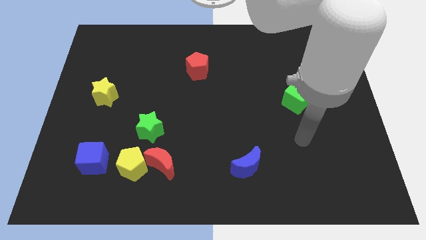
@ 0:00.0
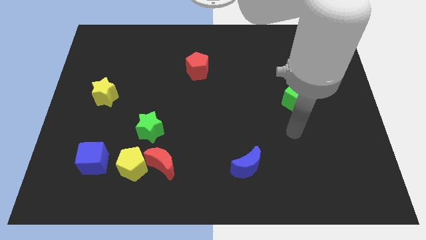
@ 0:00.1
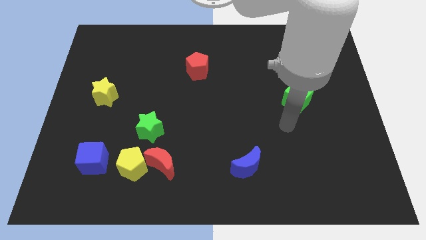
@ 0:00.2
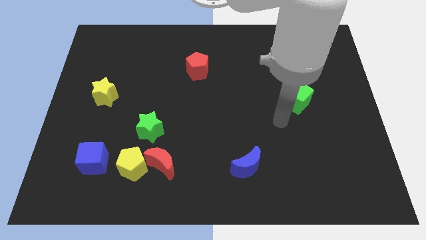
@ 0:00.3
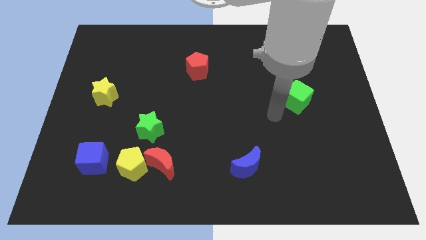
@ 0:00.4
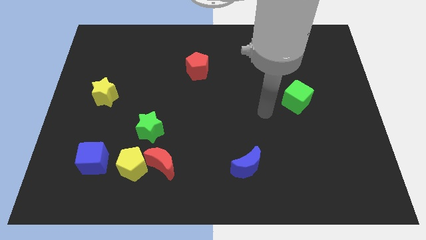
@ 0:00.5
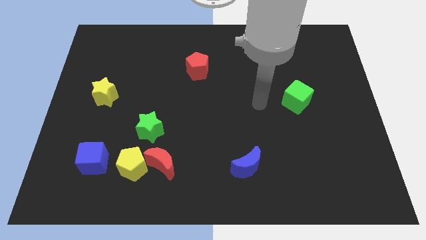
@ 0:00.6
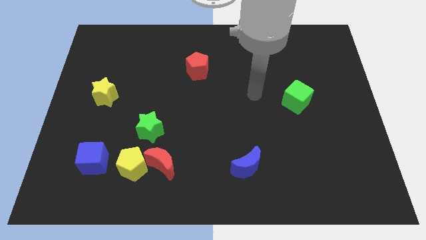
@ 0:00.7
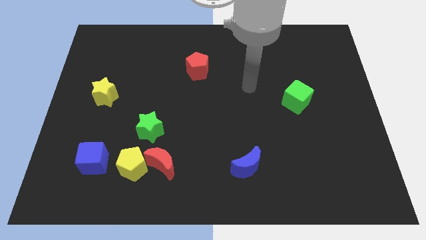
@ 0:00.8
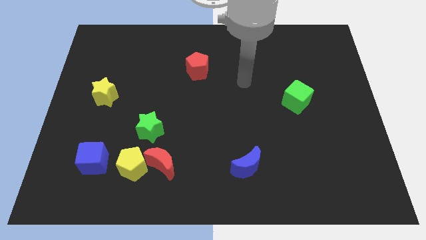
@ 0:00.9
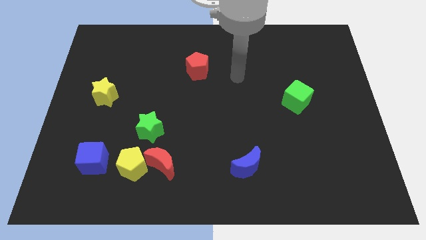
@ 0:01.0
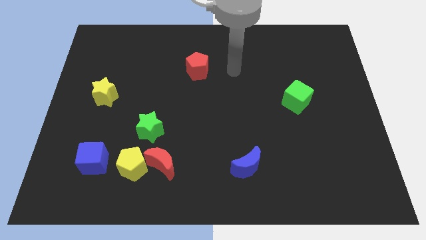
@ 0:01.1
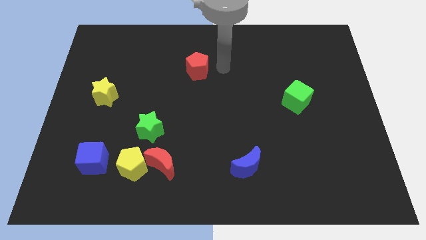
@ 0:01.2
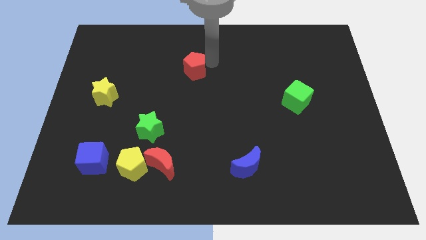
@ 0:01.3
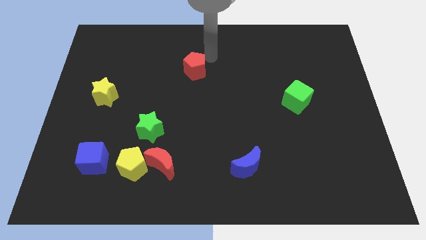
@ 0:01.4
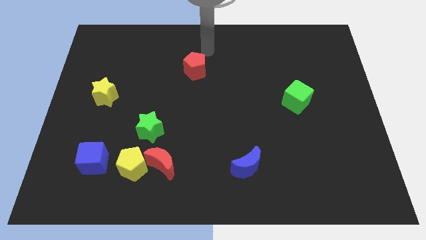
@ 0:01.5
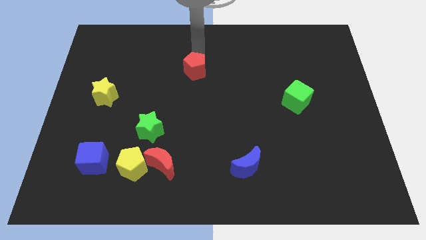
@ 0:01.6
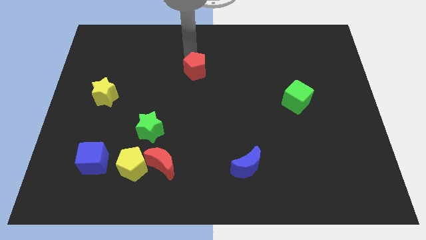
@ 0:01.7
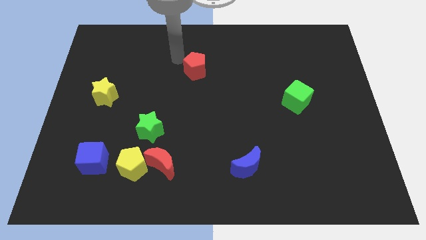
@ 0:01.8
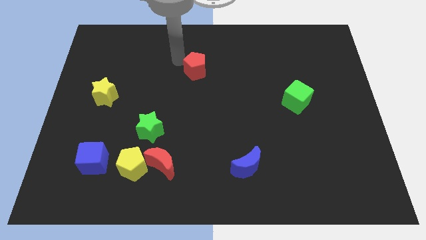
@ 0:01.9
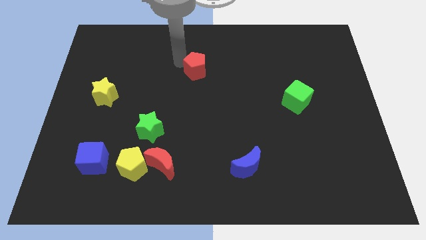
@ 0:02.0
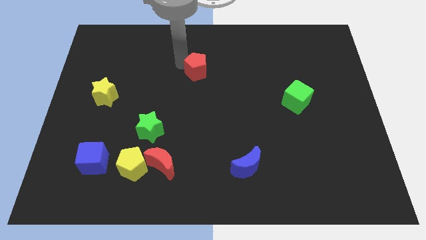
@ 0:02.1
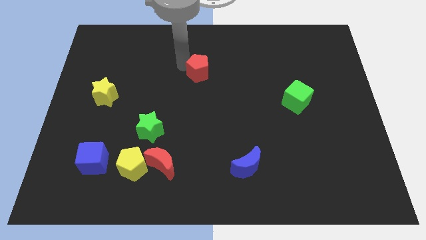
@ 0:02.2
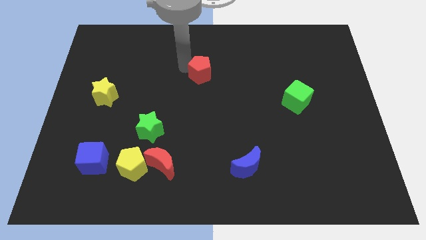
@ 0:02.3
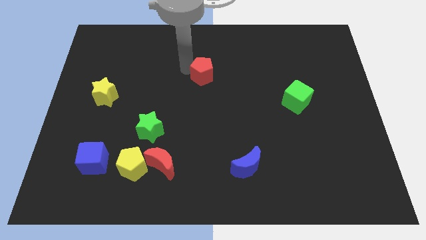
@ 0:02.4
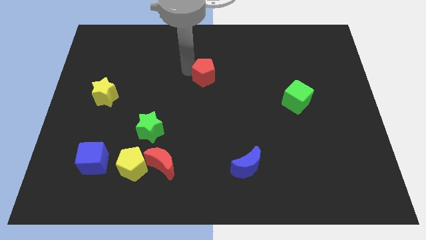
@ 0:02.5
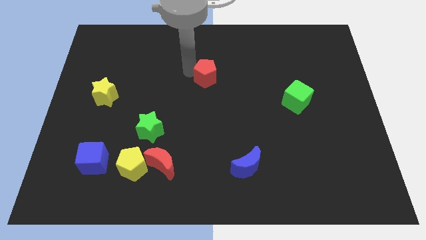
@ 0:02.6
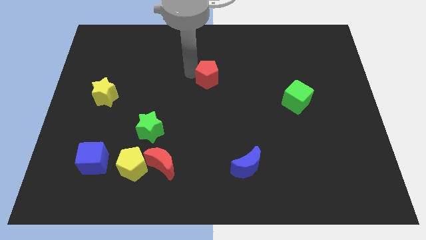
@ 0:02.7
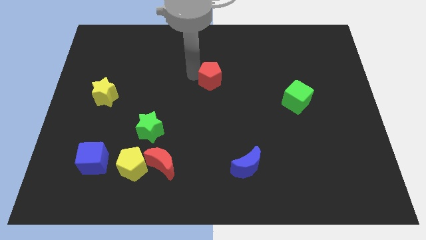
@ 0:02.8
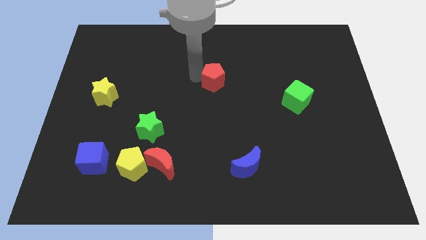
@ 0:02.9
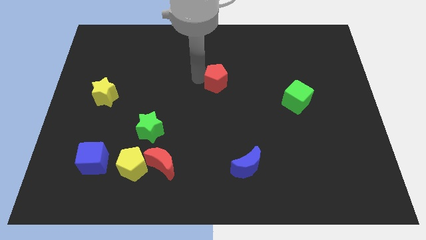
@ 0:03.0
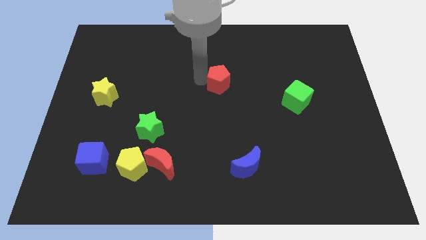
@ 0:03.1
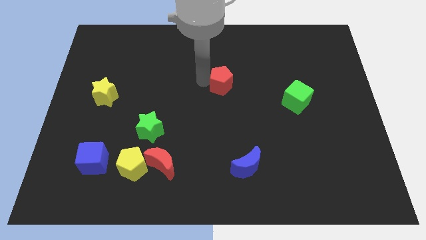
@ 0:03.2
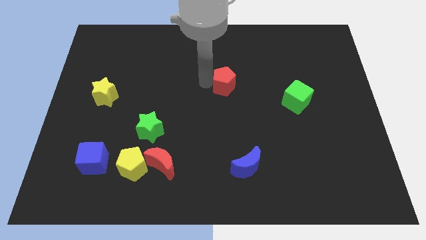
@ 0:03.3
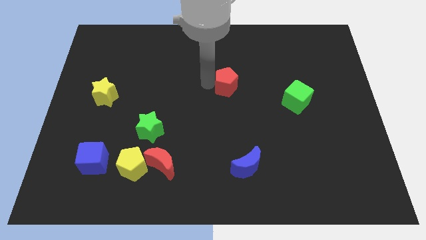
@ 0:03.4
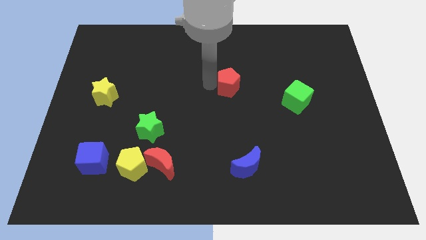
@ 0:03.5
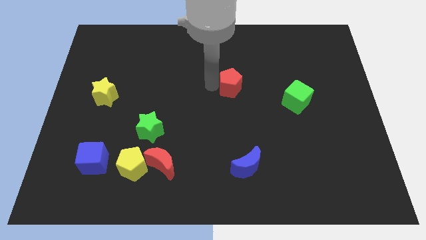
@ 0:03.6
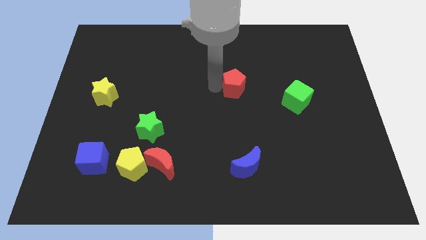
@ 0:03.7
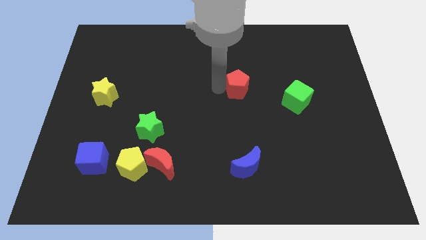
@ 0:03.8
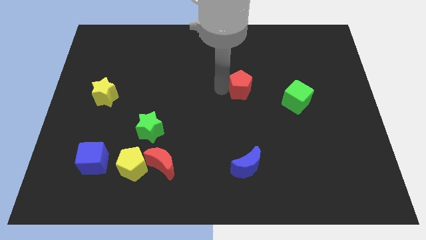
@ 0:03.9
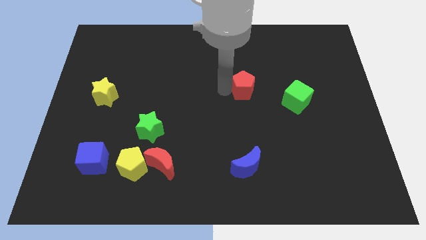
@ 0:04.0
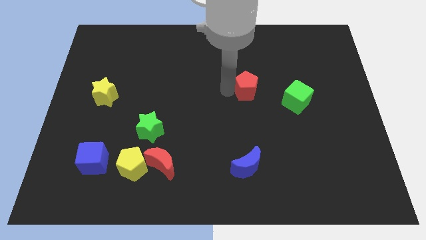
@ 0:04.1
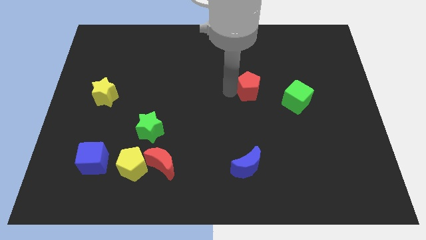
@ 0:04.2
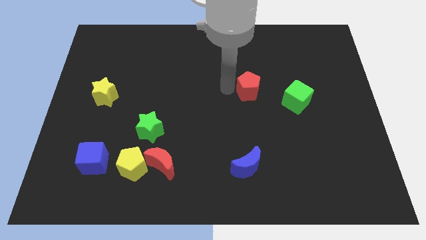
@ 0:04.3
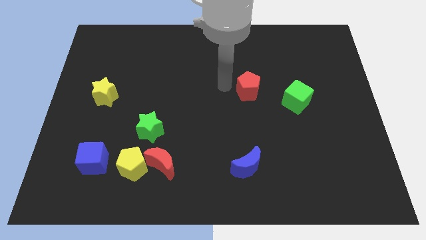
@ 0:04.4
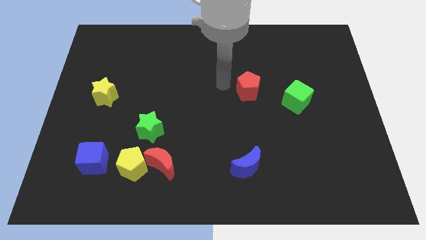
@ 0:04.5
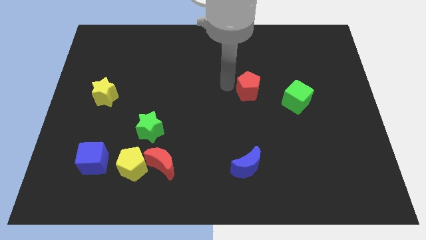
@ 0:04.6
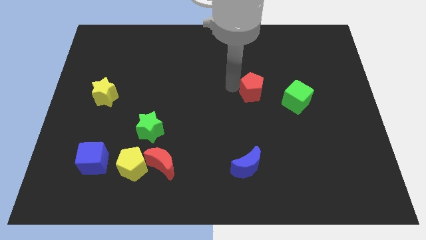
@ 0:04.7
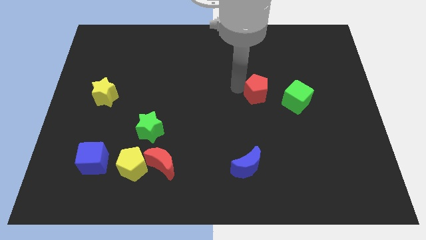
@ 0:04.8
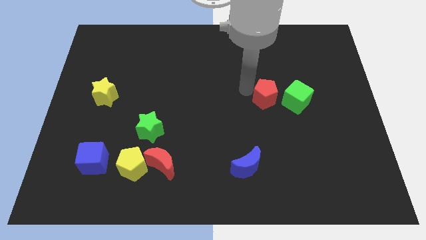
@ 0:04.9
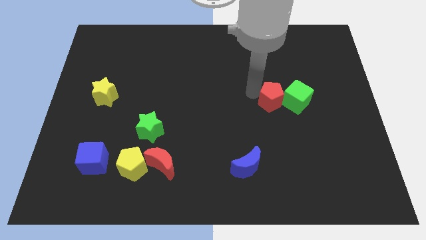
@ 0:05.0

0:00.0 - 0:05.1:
slide the red pentagon next to the green cube

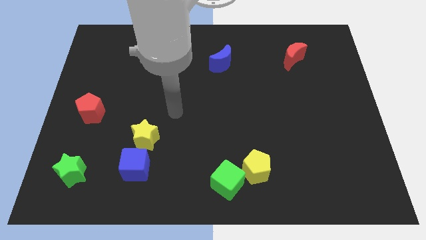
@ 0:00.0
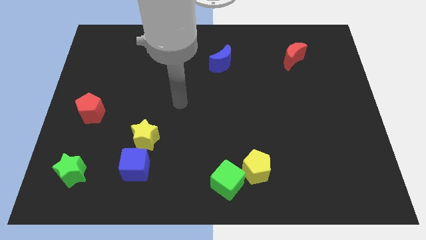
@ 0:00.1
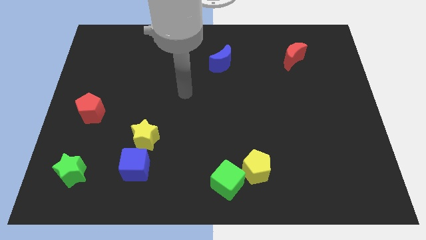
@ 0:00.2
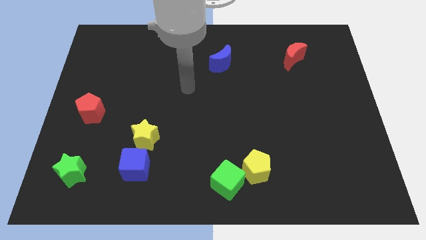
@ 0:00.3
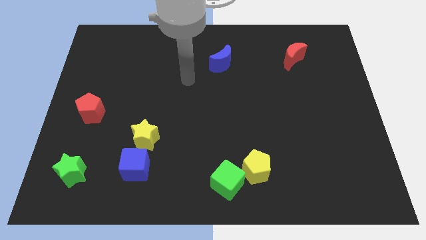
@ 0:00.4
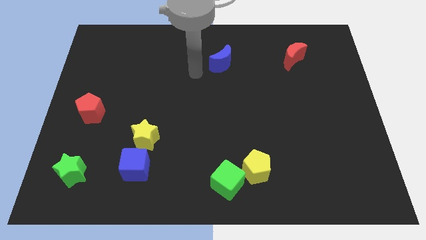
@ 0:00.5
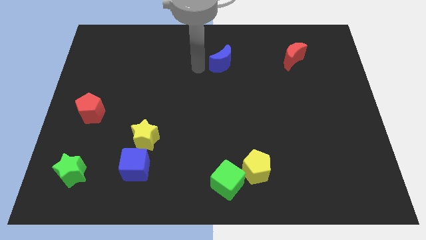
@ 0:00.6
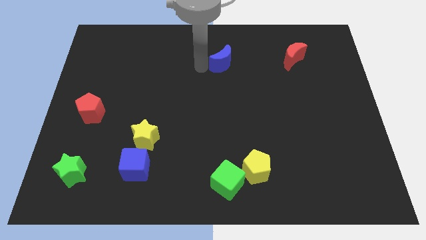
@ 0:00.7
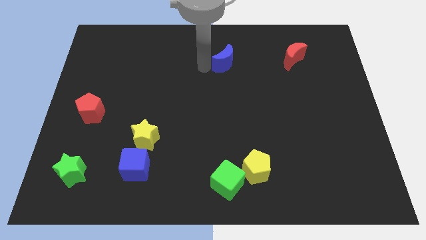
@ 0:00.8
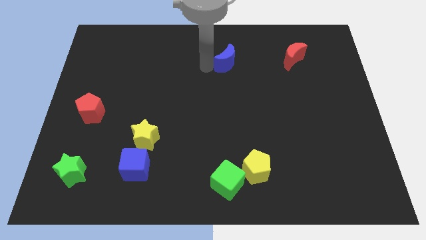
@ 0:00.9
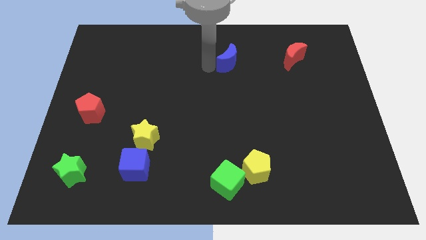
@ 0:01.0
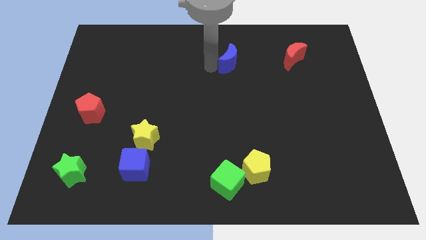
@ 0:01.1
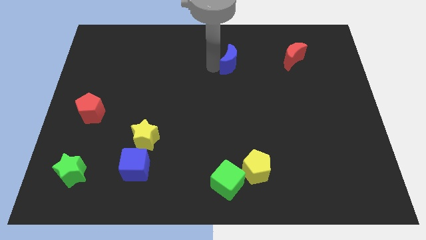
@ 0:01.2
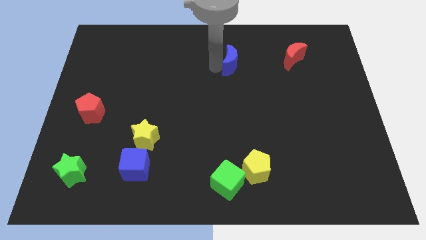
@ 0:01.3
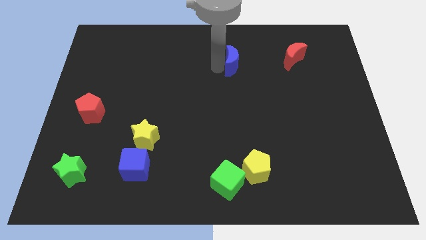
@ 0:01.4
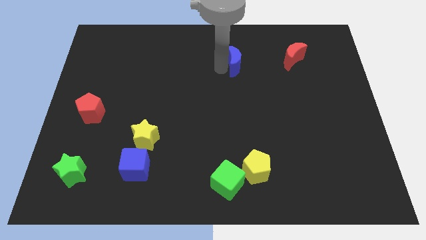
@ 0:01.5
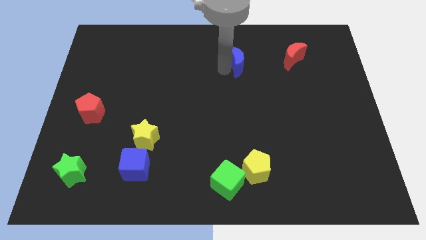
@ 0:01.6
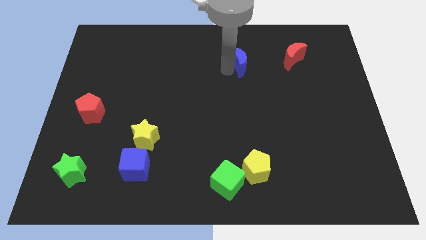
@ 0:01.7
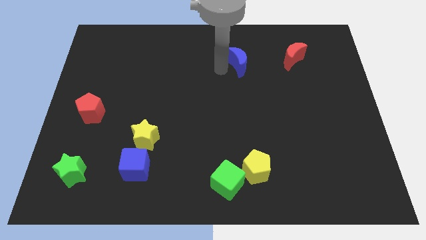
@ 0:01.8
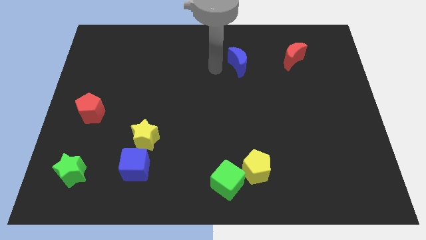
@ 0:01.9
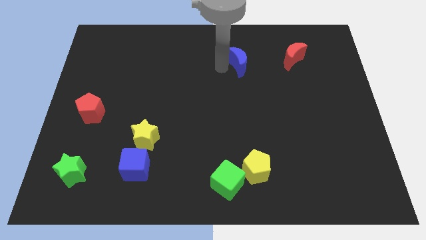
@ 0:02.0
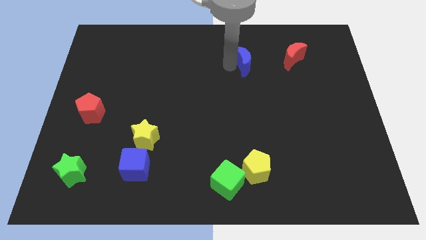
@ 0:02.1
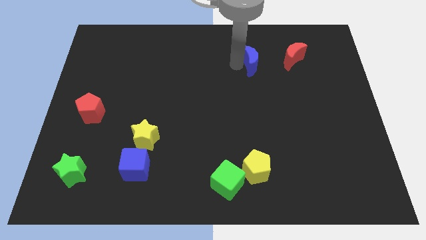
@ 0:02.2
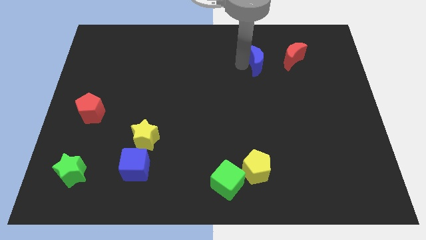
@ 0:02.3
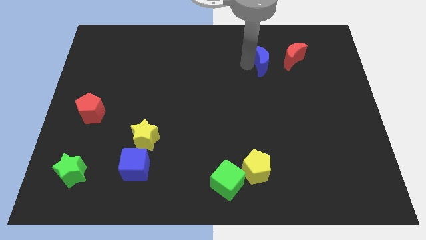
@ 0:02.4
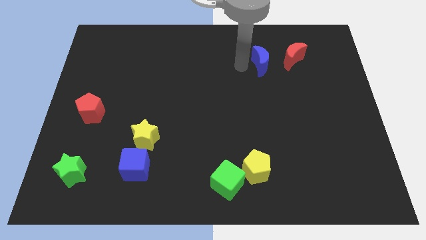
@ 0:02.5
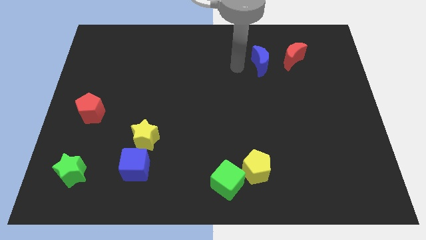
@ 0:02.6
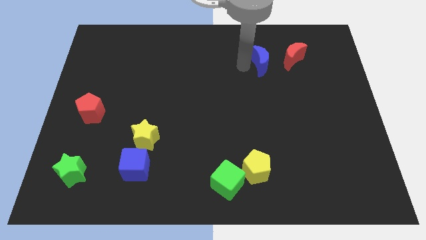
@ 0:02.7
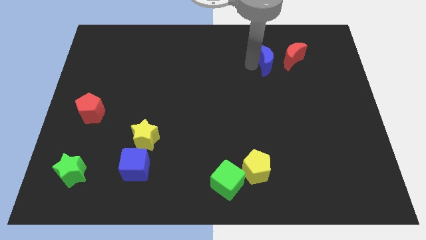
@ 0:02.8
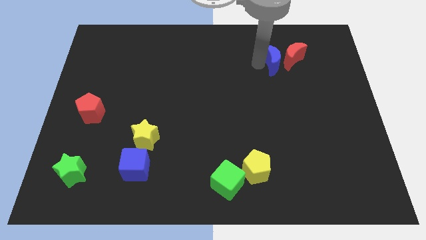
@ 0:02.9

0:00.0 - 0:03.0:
put the blue moon close to the red moon
